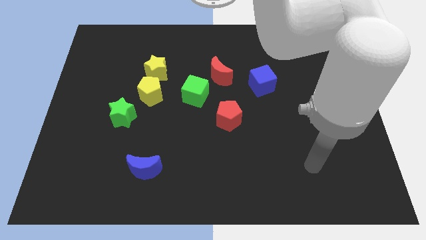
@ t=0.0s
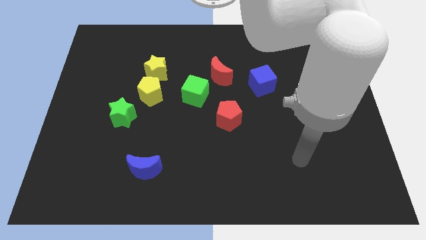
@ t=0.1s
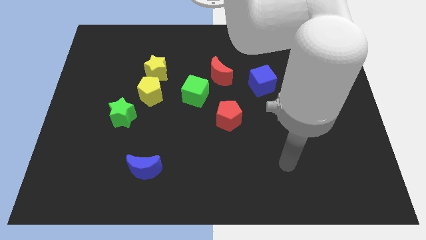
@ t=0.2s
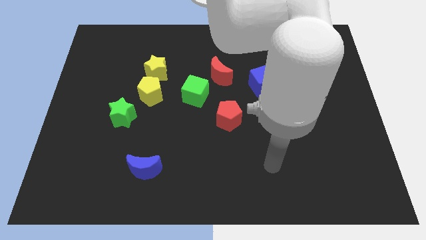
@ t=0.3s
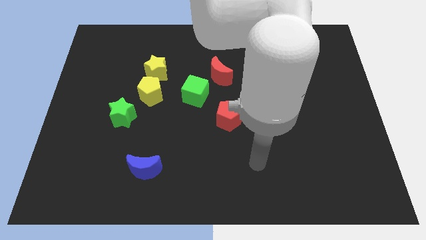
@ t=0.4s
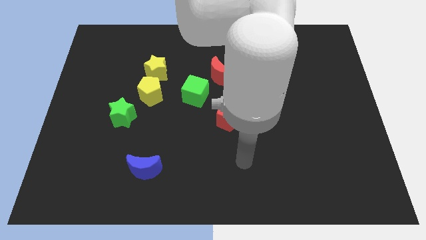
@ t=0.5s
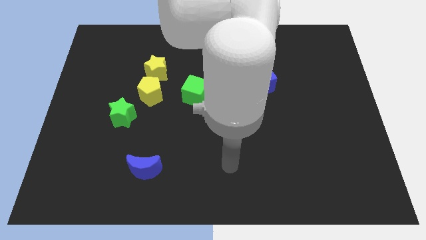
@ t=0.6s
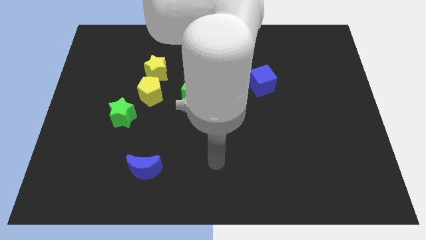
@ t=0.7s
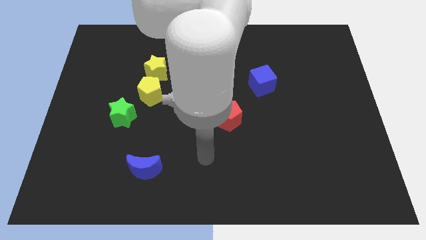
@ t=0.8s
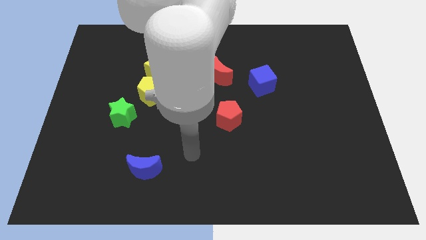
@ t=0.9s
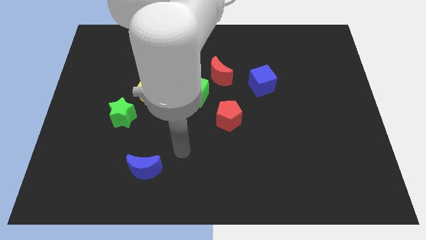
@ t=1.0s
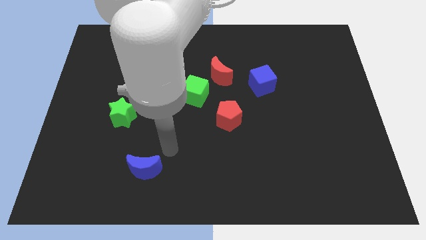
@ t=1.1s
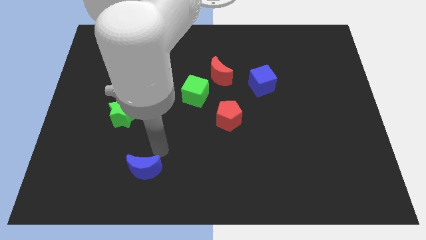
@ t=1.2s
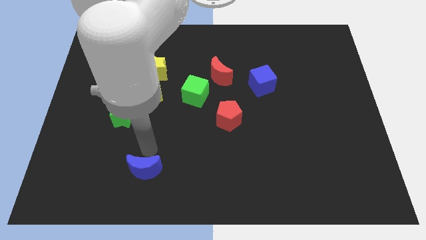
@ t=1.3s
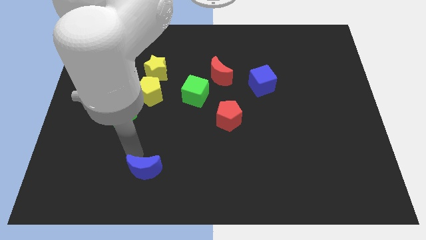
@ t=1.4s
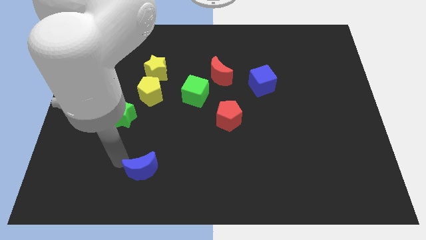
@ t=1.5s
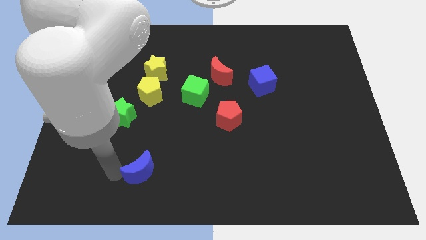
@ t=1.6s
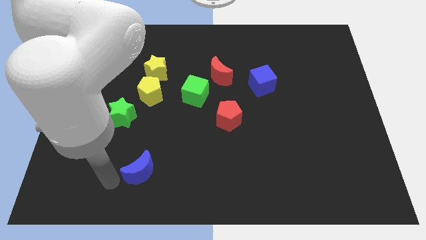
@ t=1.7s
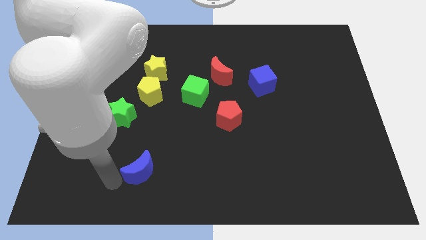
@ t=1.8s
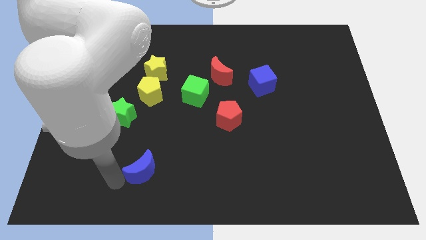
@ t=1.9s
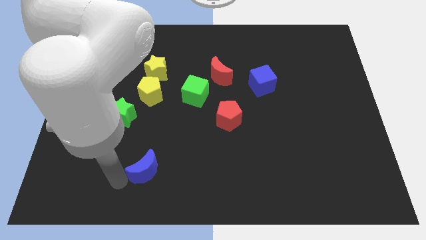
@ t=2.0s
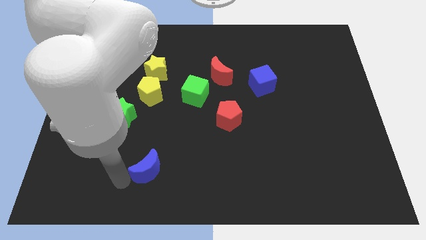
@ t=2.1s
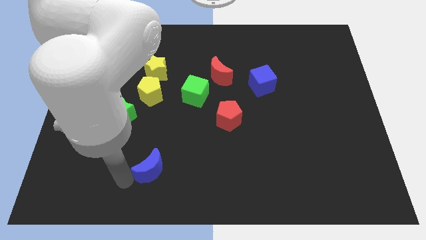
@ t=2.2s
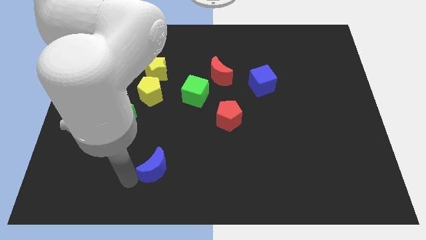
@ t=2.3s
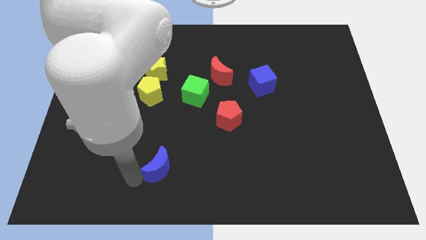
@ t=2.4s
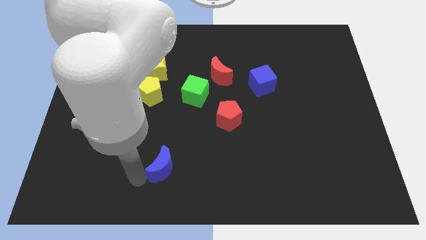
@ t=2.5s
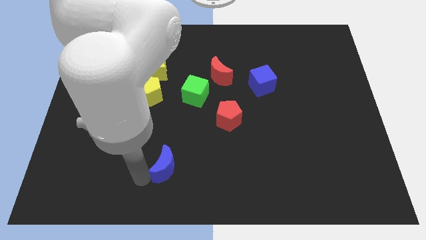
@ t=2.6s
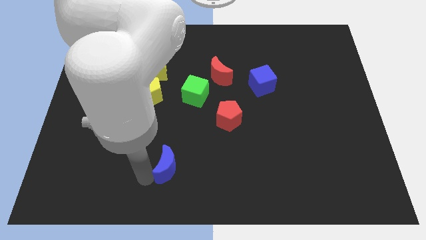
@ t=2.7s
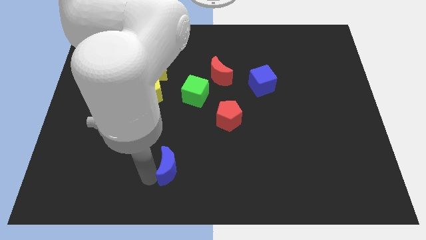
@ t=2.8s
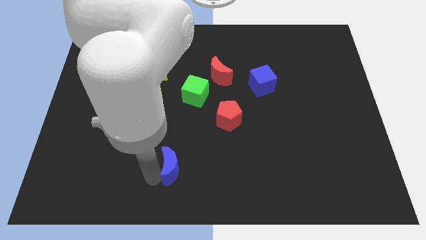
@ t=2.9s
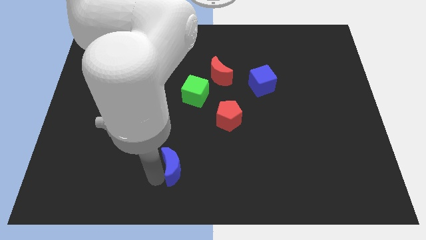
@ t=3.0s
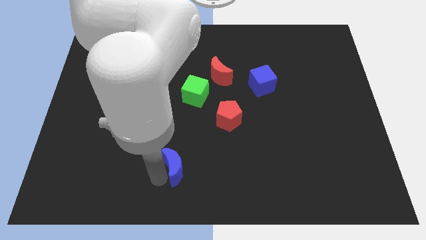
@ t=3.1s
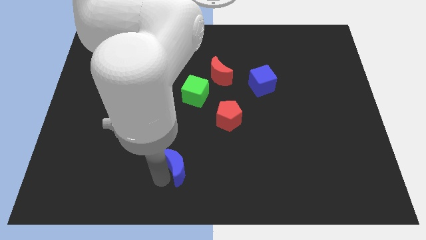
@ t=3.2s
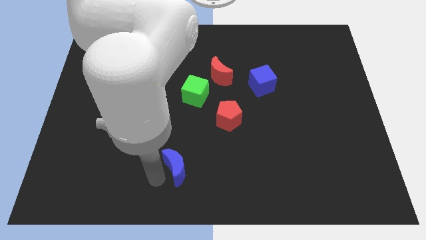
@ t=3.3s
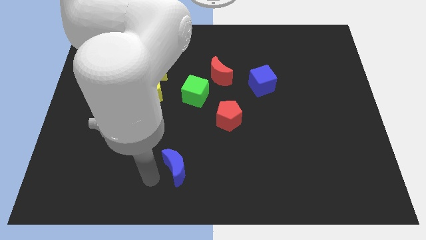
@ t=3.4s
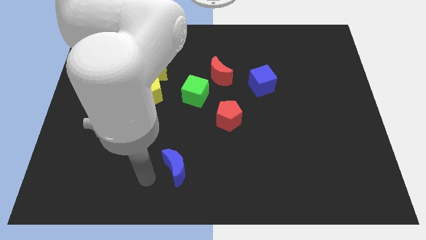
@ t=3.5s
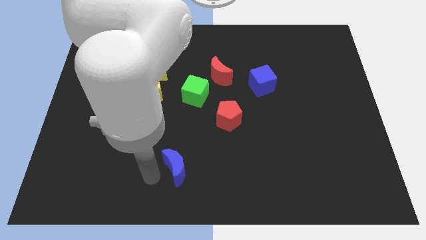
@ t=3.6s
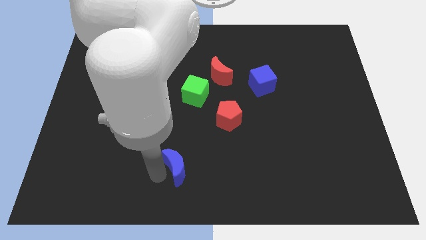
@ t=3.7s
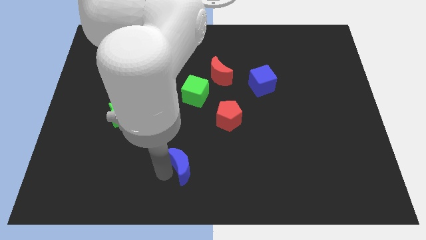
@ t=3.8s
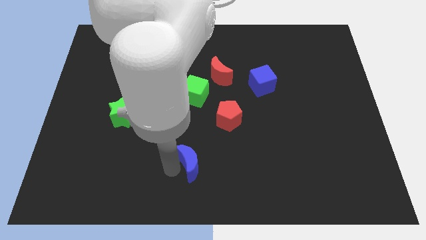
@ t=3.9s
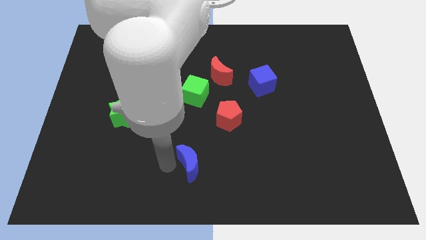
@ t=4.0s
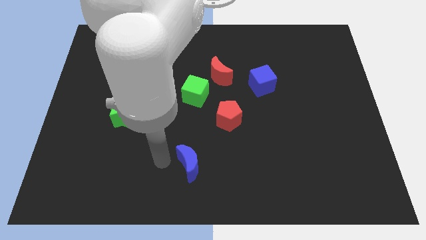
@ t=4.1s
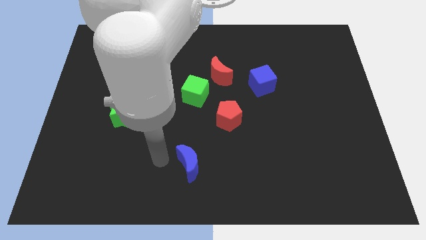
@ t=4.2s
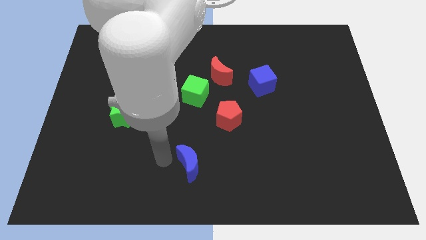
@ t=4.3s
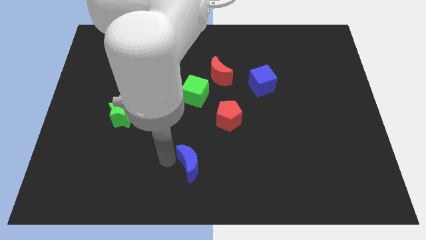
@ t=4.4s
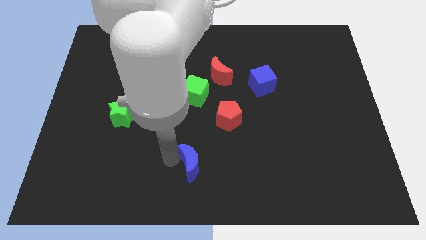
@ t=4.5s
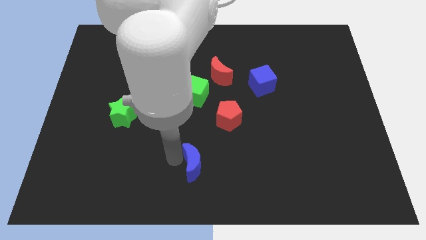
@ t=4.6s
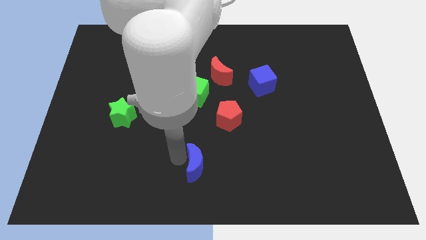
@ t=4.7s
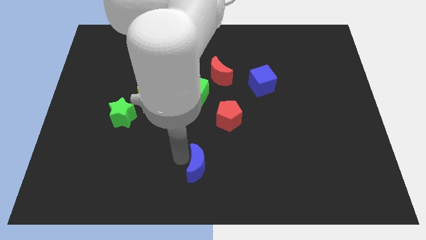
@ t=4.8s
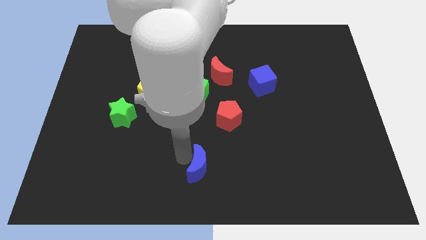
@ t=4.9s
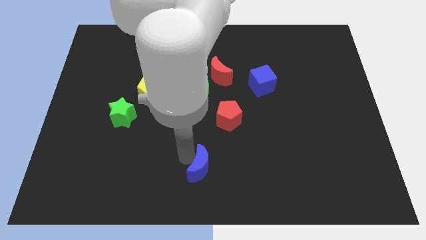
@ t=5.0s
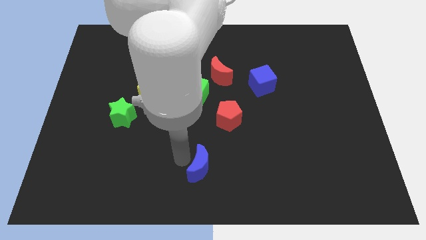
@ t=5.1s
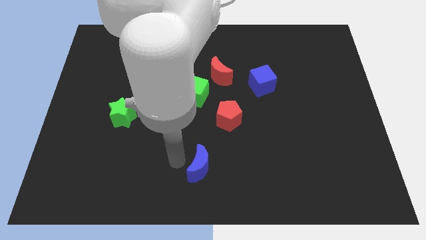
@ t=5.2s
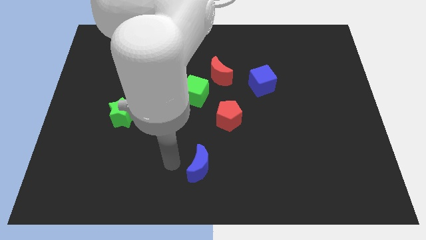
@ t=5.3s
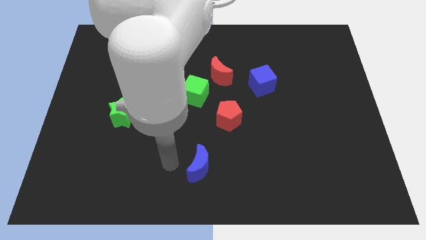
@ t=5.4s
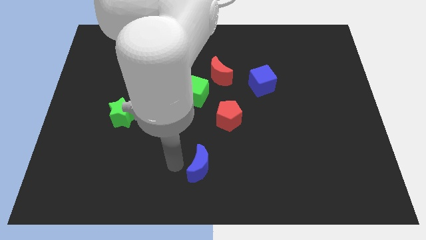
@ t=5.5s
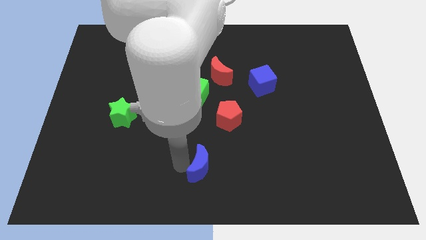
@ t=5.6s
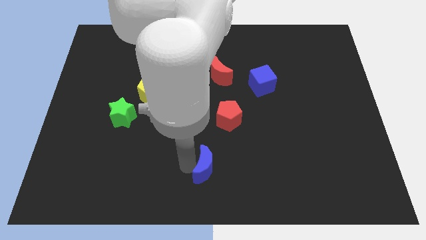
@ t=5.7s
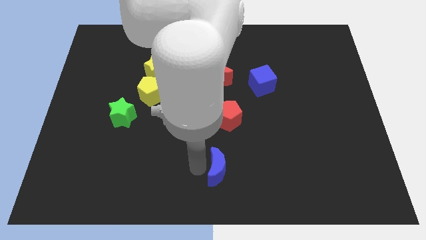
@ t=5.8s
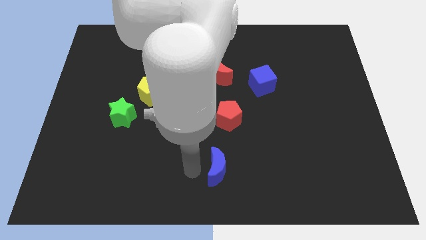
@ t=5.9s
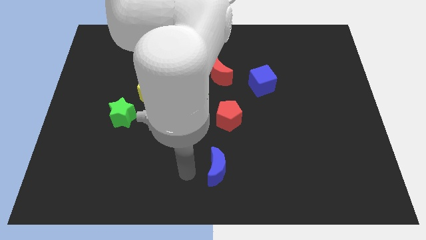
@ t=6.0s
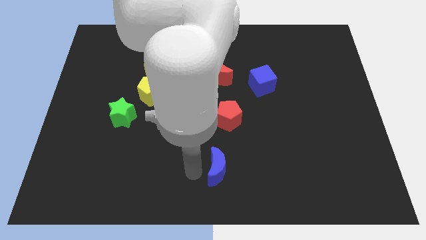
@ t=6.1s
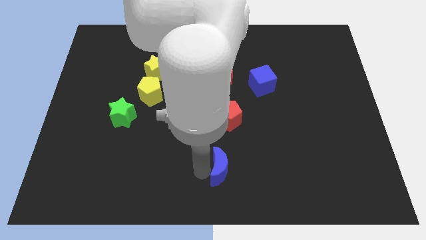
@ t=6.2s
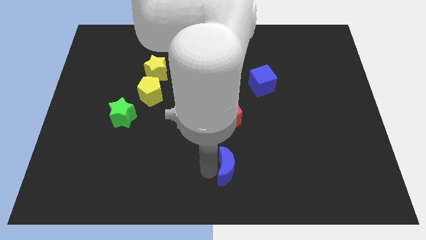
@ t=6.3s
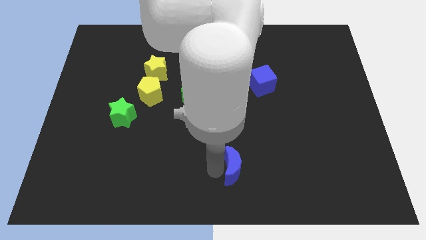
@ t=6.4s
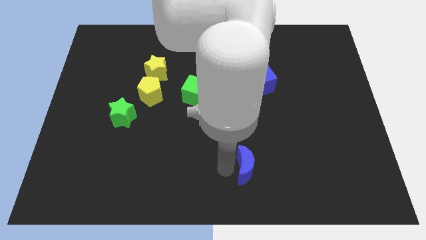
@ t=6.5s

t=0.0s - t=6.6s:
push the blue moon to the right

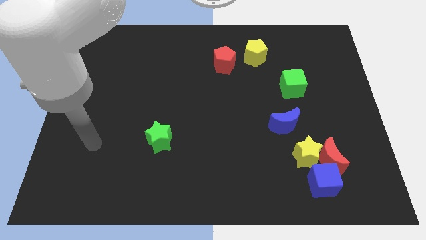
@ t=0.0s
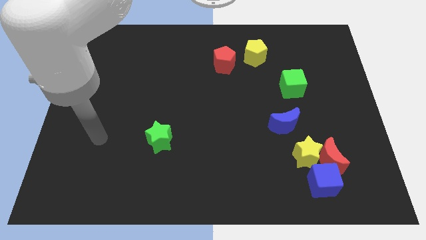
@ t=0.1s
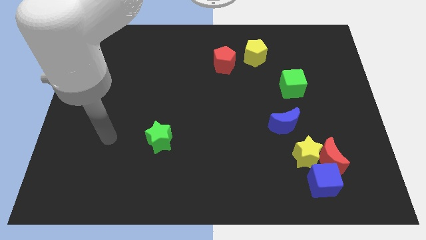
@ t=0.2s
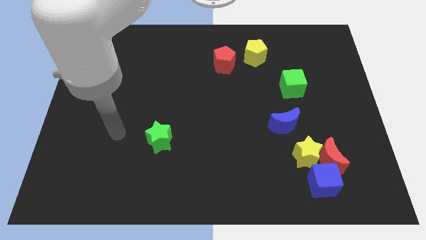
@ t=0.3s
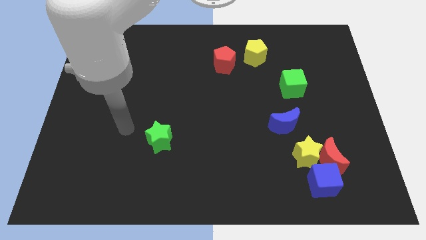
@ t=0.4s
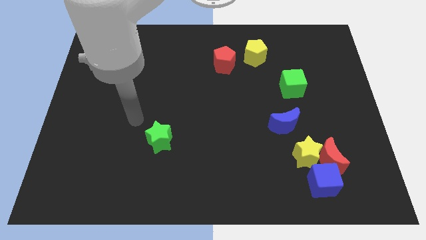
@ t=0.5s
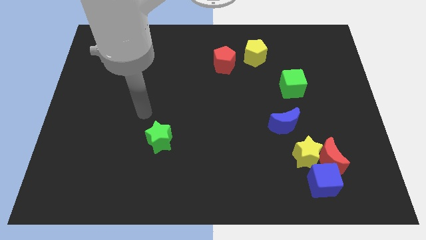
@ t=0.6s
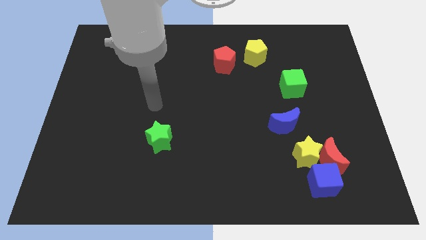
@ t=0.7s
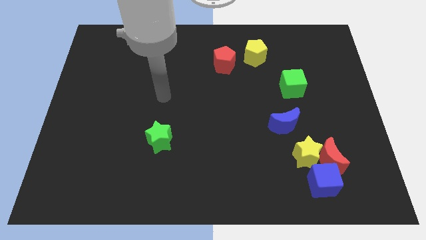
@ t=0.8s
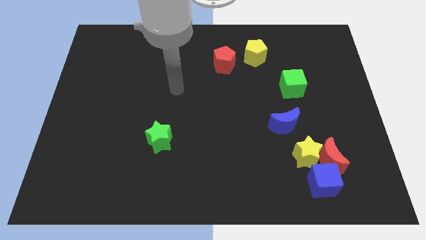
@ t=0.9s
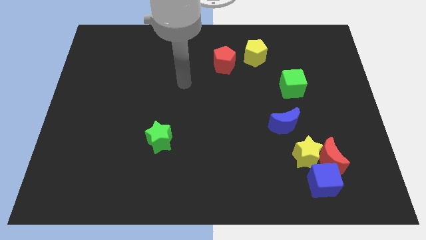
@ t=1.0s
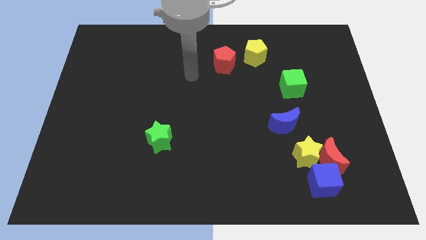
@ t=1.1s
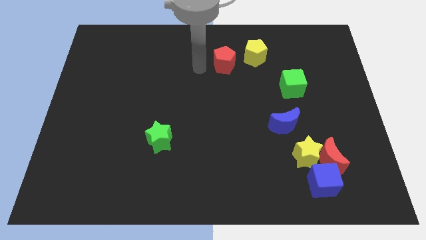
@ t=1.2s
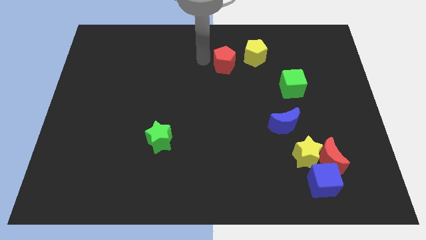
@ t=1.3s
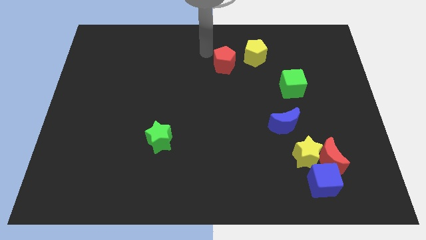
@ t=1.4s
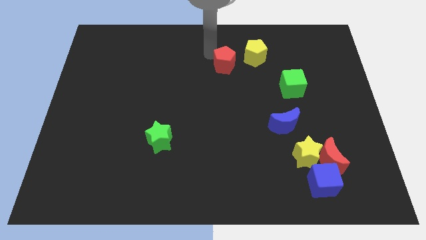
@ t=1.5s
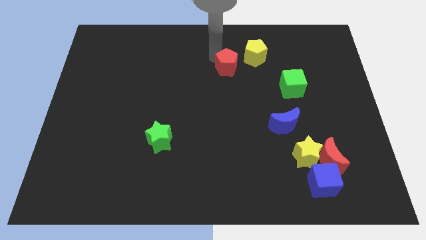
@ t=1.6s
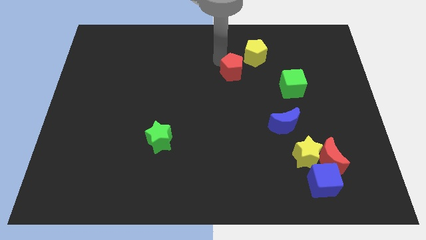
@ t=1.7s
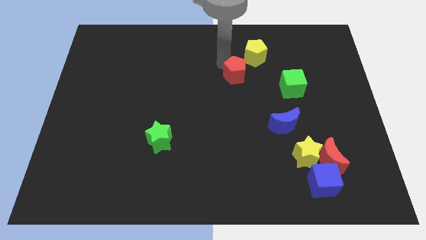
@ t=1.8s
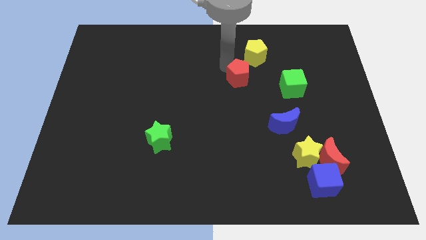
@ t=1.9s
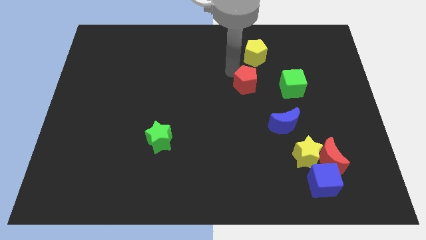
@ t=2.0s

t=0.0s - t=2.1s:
slide the red pentagon downwards and right diagonally somewhat
